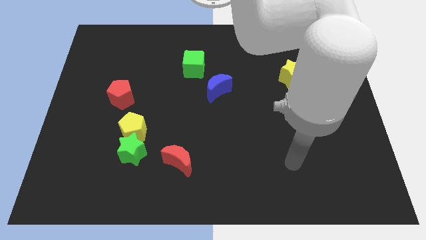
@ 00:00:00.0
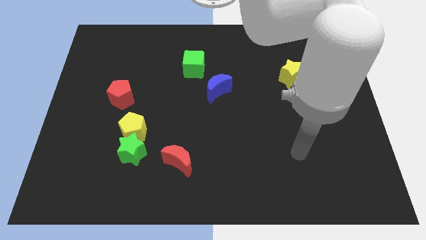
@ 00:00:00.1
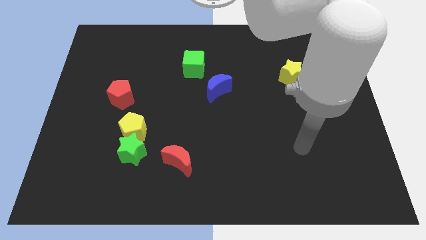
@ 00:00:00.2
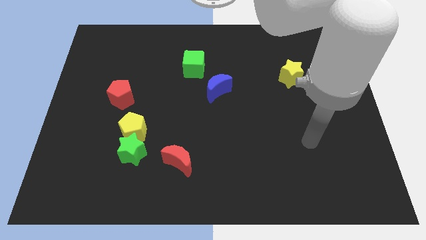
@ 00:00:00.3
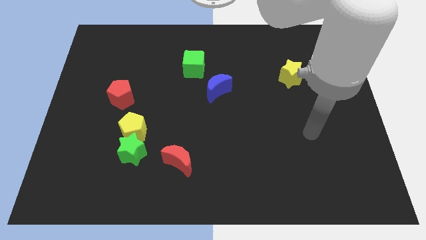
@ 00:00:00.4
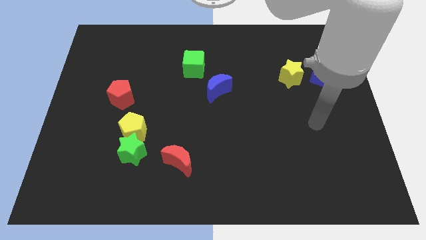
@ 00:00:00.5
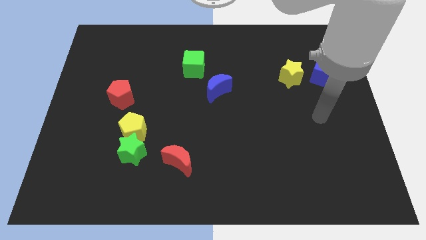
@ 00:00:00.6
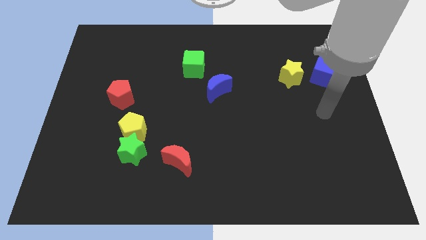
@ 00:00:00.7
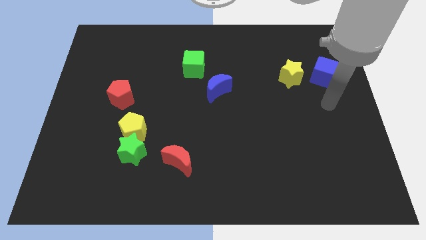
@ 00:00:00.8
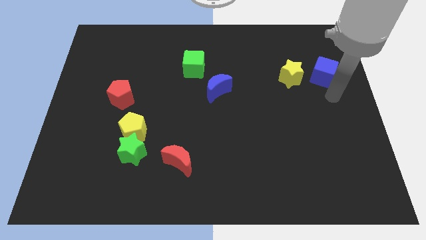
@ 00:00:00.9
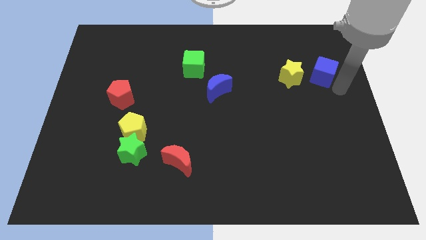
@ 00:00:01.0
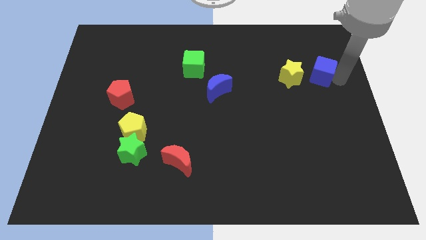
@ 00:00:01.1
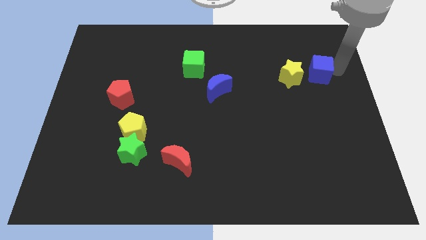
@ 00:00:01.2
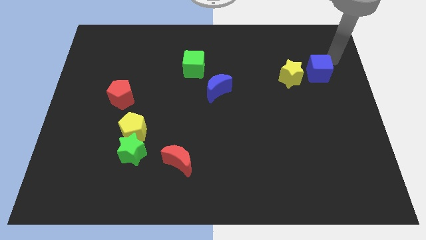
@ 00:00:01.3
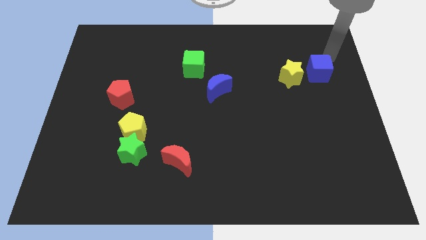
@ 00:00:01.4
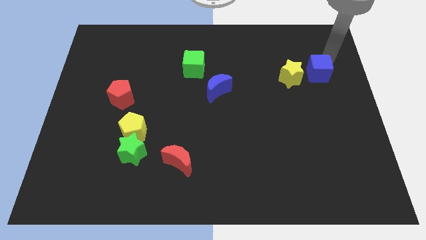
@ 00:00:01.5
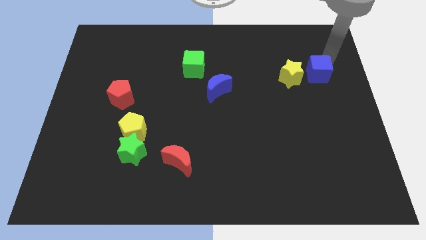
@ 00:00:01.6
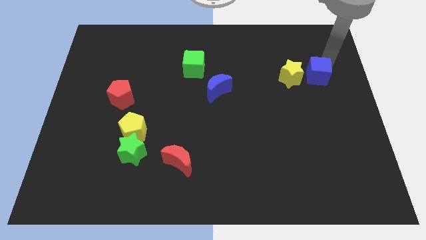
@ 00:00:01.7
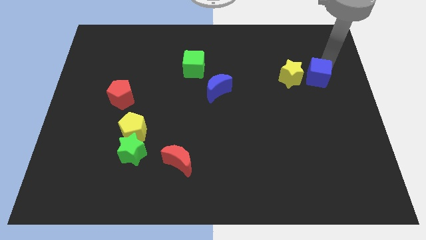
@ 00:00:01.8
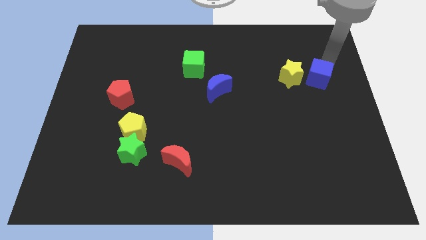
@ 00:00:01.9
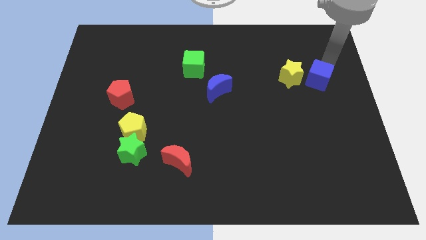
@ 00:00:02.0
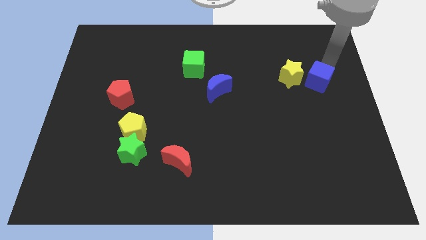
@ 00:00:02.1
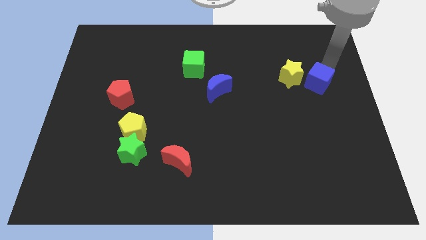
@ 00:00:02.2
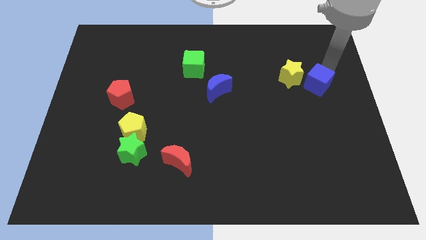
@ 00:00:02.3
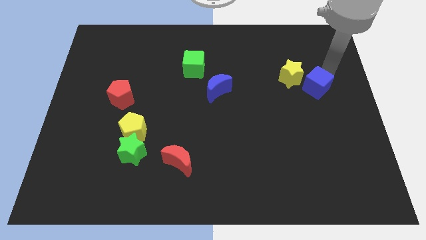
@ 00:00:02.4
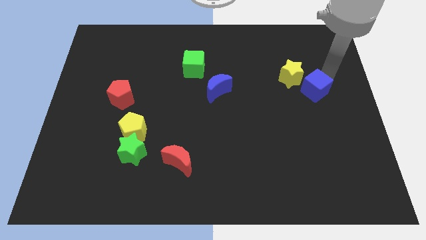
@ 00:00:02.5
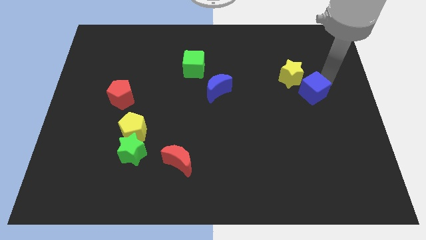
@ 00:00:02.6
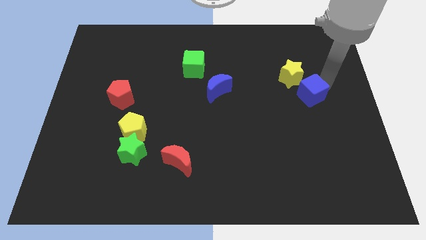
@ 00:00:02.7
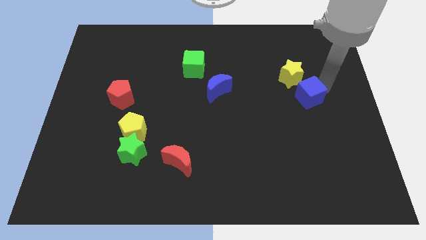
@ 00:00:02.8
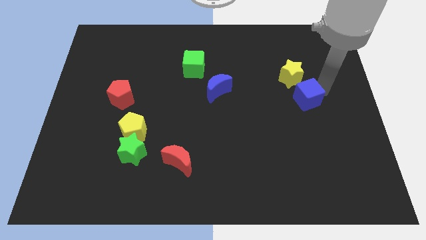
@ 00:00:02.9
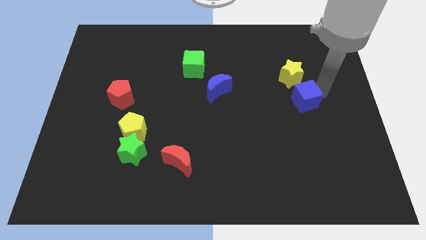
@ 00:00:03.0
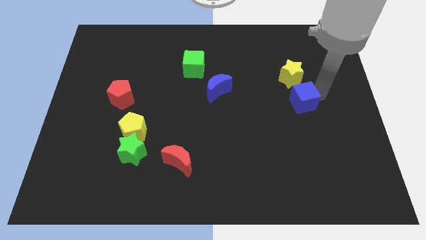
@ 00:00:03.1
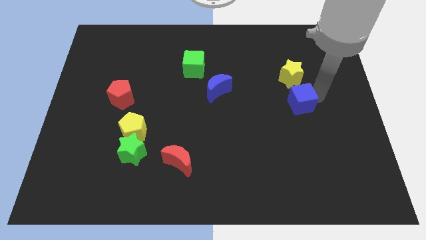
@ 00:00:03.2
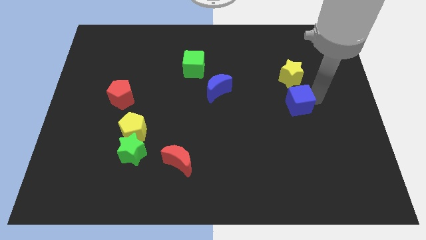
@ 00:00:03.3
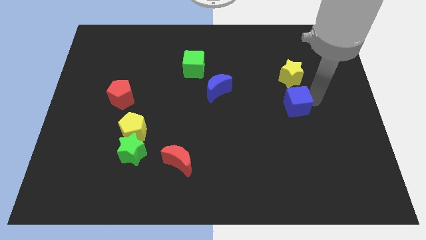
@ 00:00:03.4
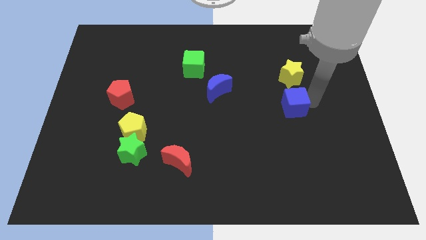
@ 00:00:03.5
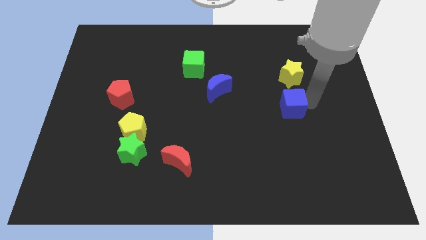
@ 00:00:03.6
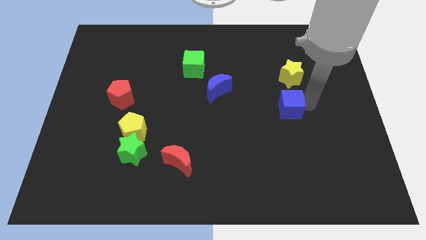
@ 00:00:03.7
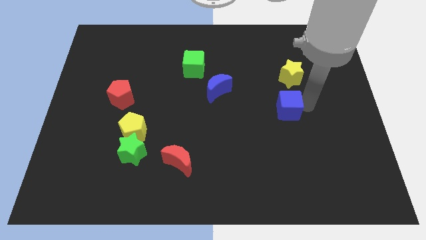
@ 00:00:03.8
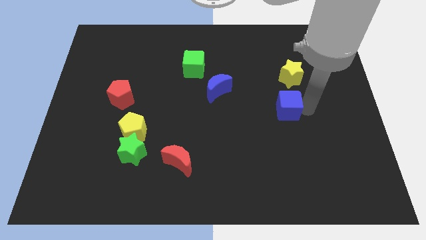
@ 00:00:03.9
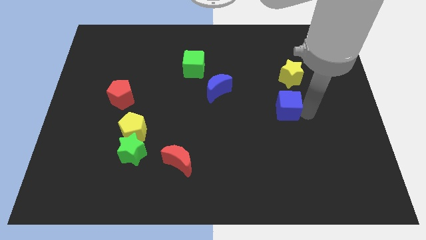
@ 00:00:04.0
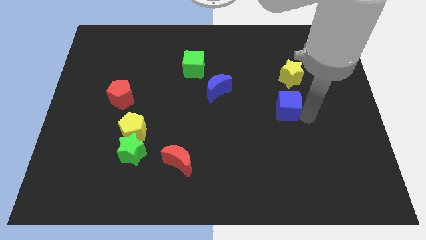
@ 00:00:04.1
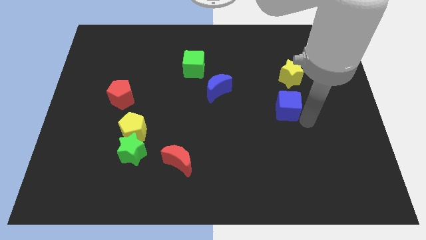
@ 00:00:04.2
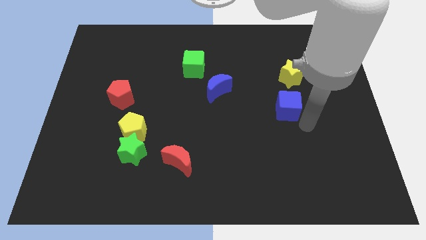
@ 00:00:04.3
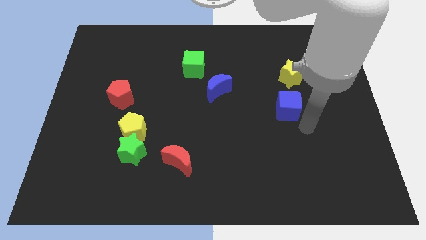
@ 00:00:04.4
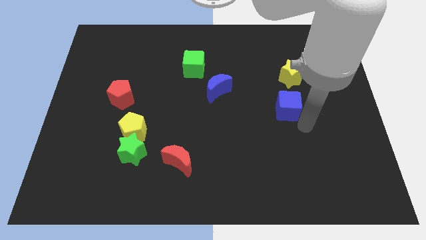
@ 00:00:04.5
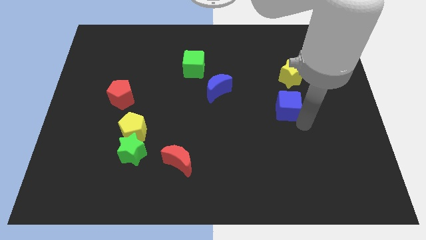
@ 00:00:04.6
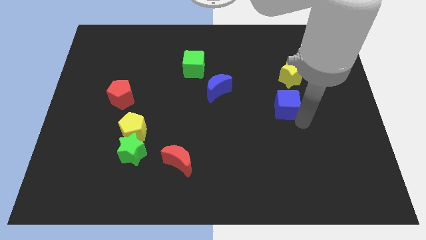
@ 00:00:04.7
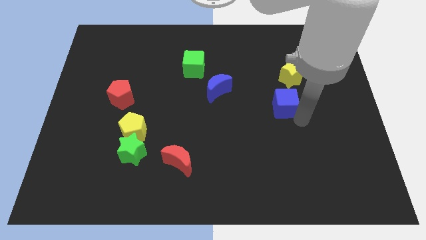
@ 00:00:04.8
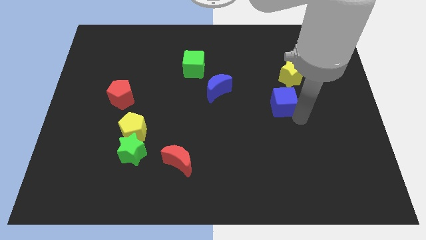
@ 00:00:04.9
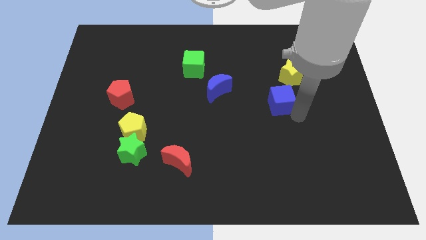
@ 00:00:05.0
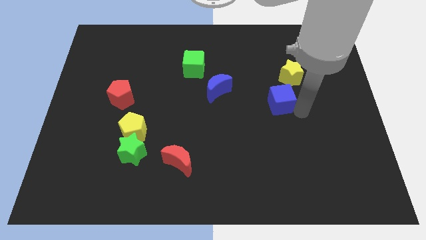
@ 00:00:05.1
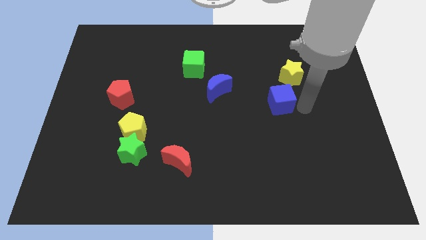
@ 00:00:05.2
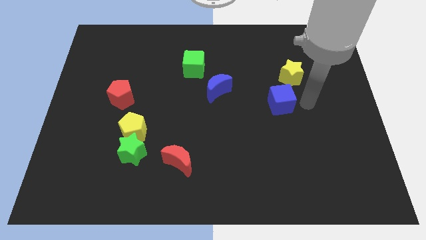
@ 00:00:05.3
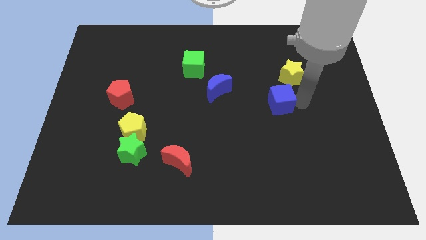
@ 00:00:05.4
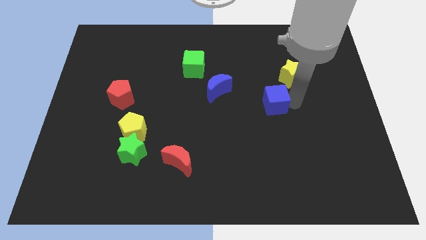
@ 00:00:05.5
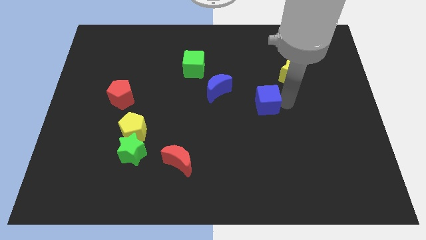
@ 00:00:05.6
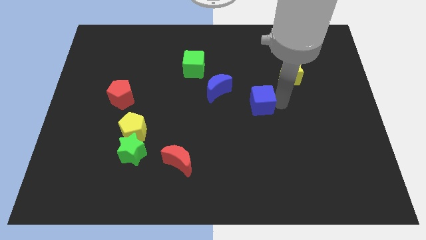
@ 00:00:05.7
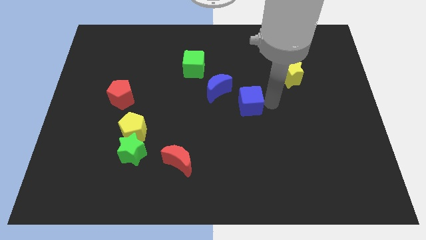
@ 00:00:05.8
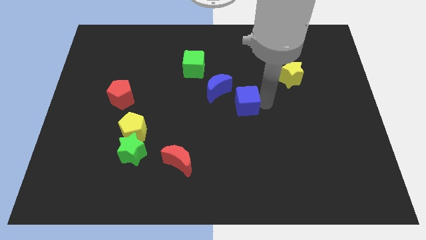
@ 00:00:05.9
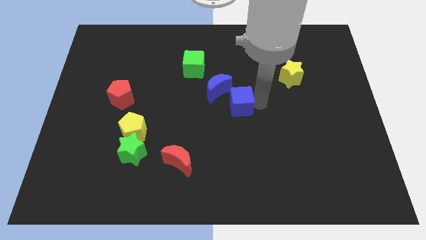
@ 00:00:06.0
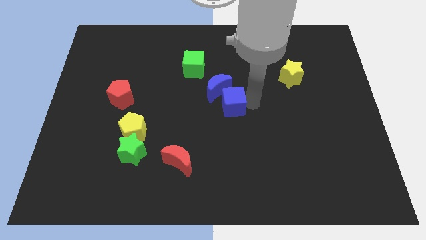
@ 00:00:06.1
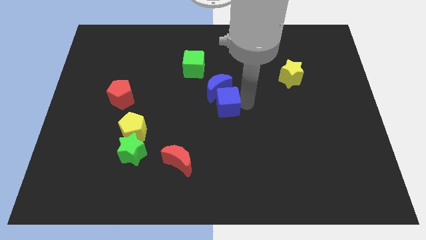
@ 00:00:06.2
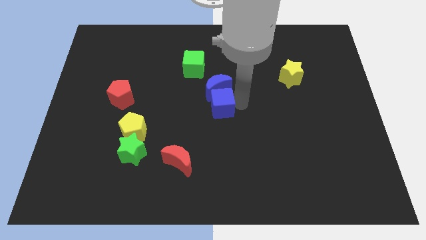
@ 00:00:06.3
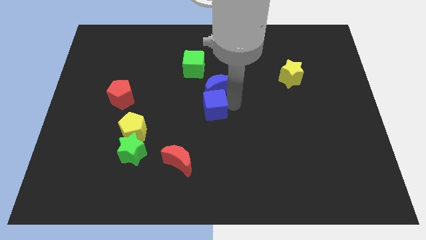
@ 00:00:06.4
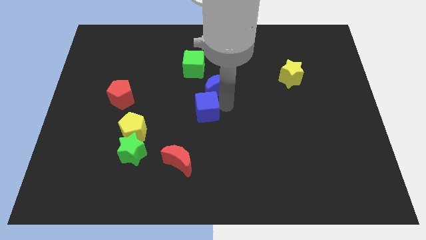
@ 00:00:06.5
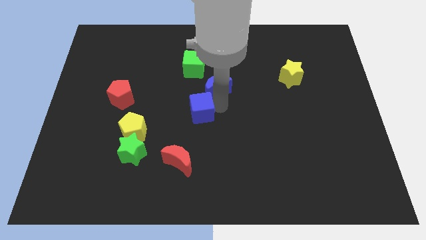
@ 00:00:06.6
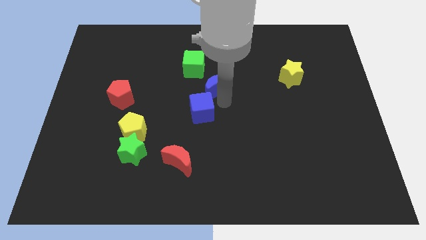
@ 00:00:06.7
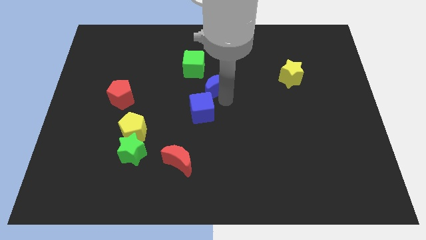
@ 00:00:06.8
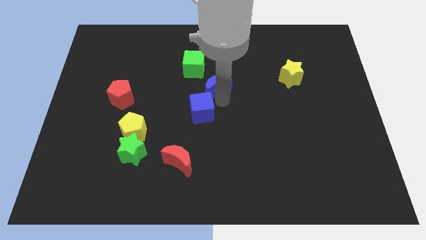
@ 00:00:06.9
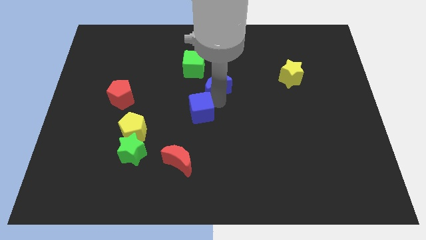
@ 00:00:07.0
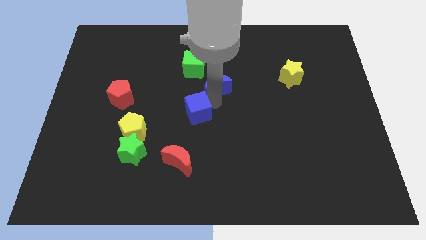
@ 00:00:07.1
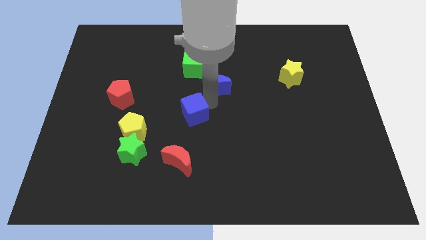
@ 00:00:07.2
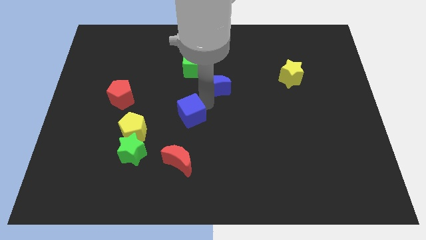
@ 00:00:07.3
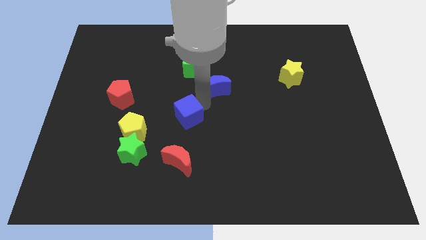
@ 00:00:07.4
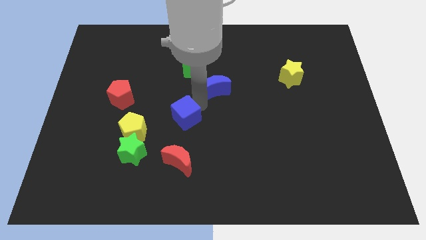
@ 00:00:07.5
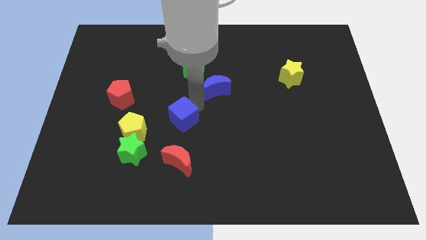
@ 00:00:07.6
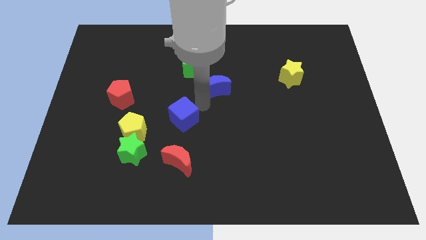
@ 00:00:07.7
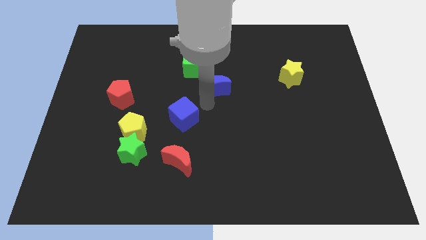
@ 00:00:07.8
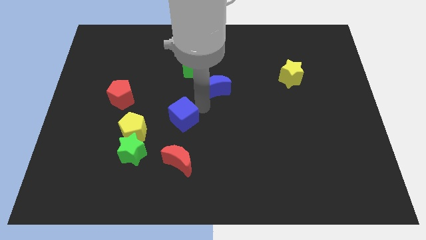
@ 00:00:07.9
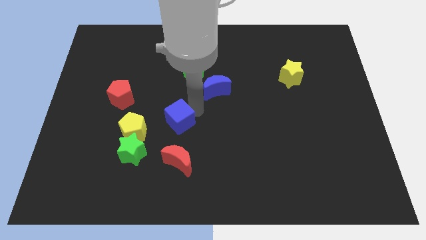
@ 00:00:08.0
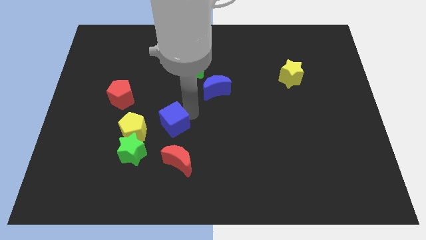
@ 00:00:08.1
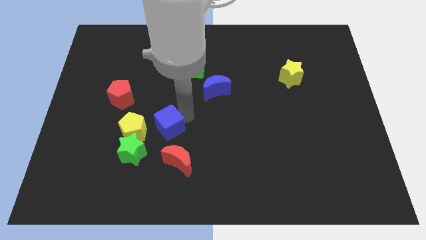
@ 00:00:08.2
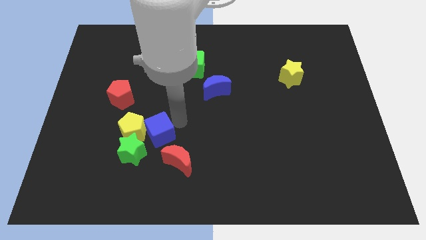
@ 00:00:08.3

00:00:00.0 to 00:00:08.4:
push the blue cube next to the yellow pentagon
